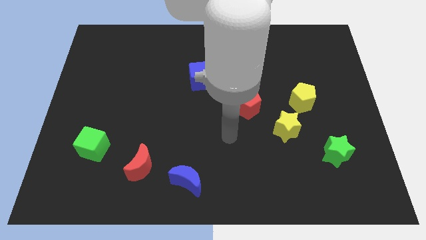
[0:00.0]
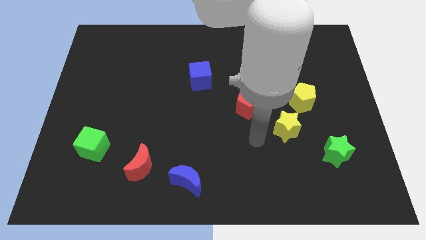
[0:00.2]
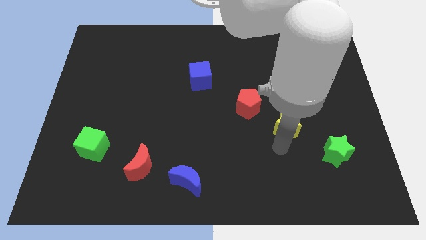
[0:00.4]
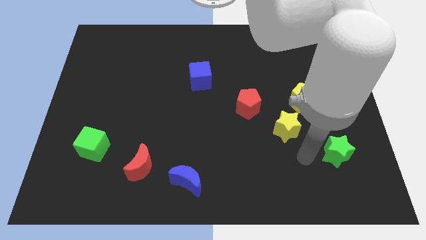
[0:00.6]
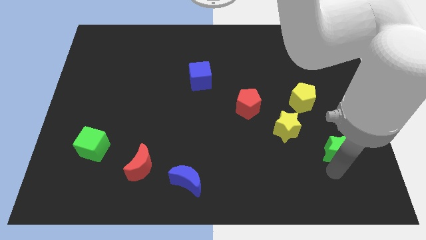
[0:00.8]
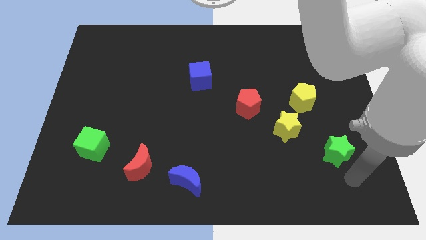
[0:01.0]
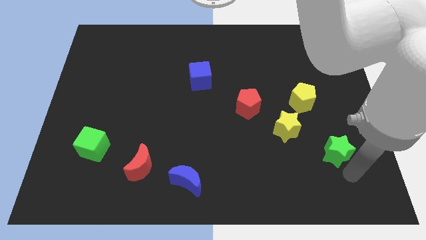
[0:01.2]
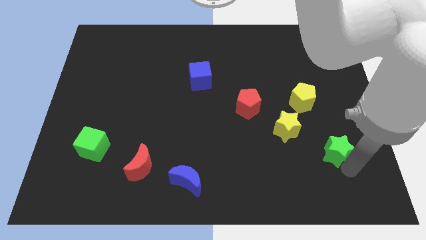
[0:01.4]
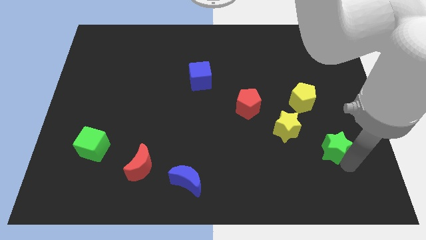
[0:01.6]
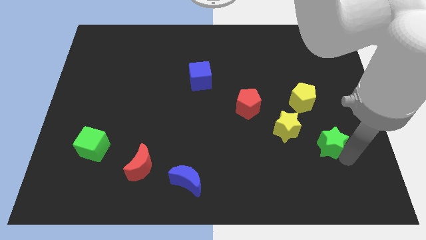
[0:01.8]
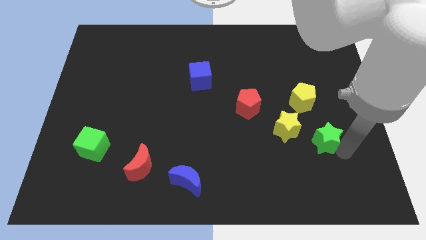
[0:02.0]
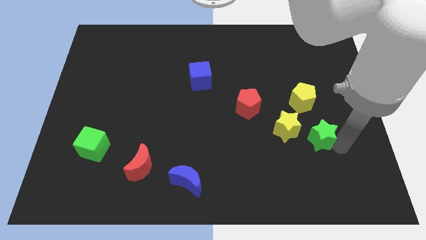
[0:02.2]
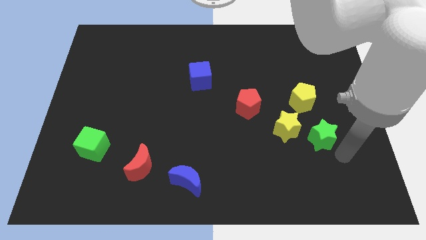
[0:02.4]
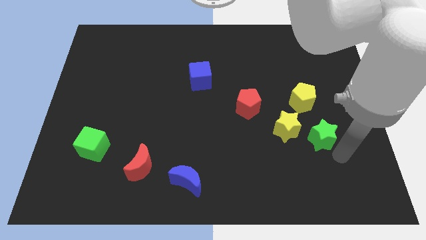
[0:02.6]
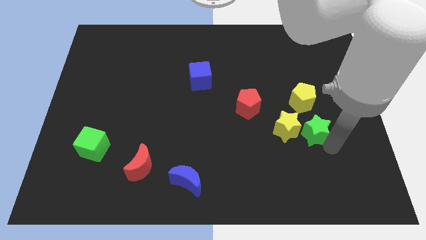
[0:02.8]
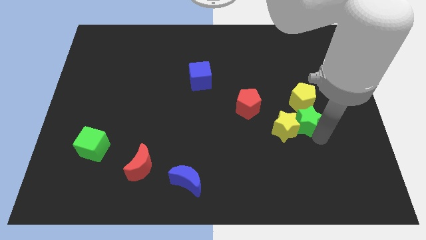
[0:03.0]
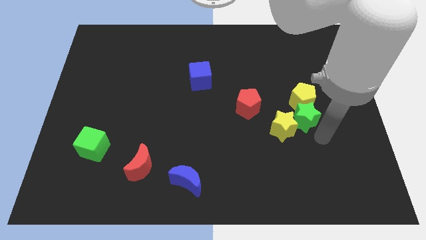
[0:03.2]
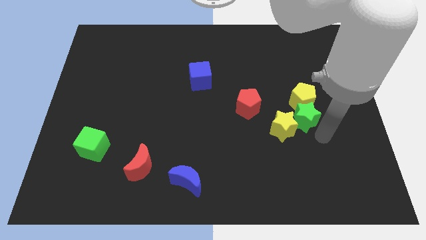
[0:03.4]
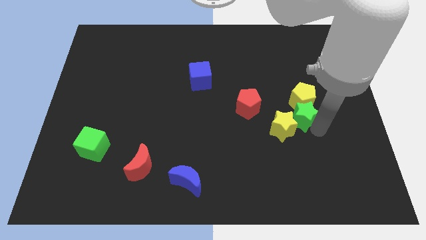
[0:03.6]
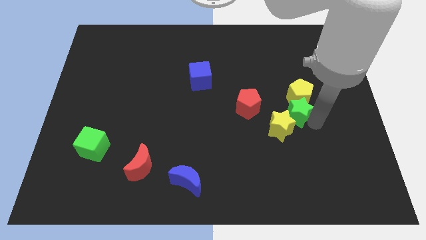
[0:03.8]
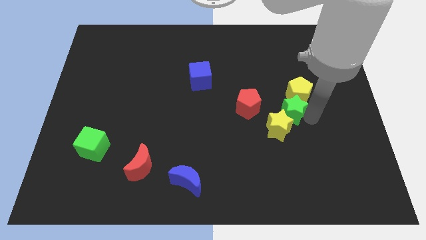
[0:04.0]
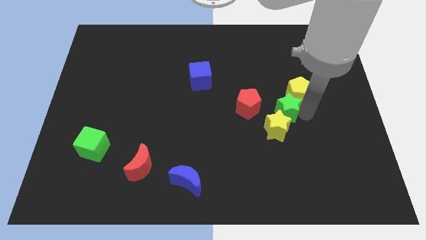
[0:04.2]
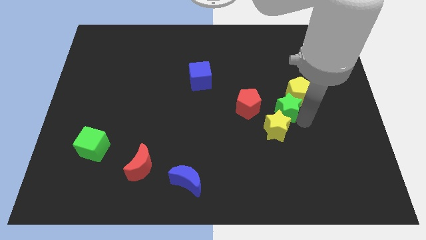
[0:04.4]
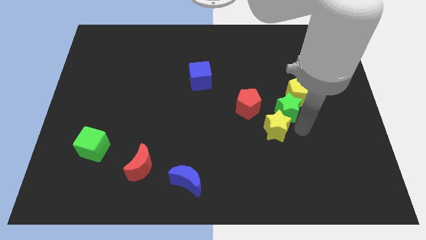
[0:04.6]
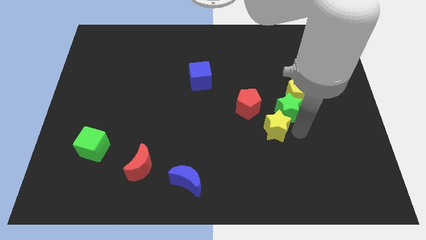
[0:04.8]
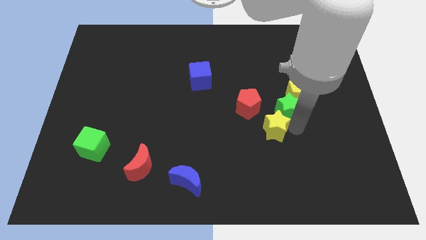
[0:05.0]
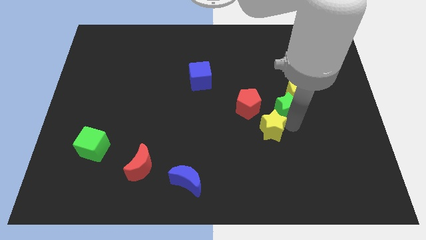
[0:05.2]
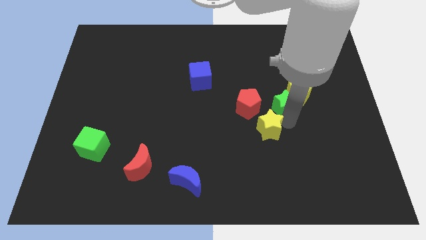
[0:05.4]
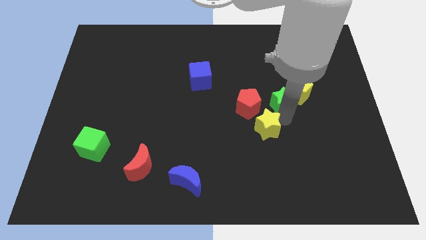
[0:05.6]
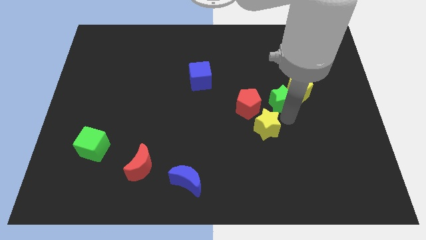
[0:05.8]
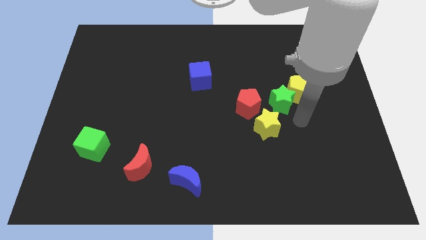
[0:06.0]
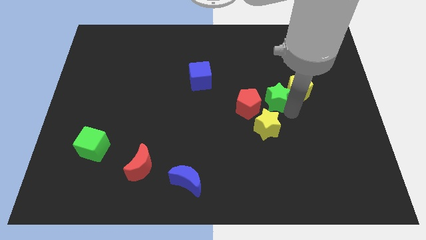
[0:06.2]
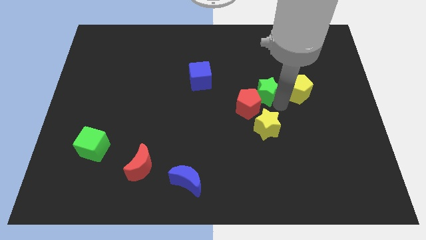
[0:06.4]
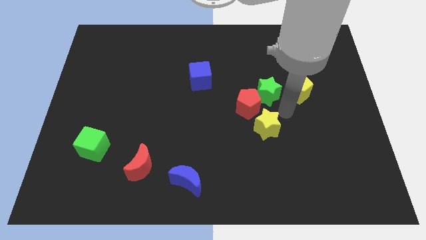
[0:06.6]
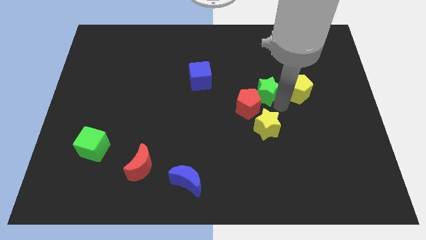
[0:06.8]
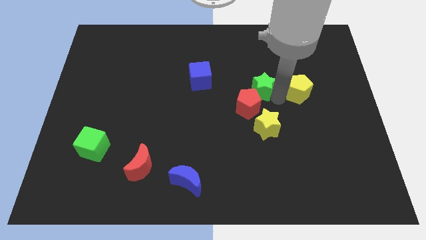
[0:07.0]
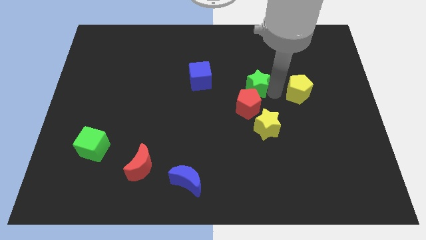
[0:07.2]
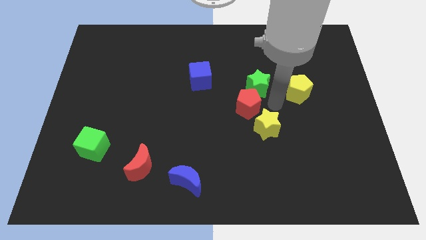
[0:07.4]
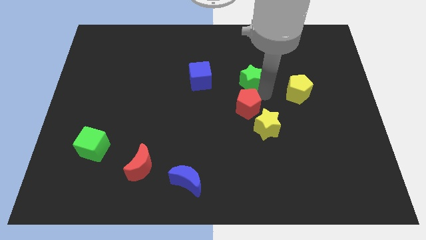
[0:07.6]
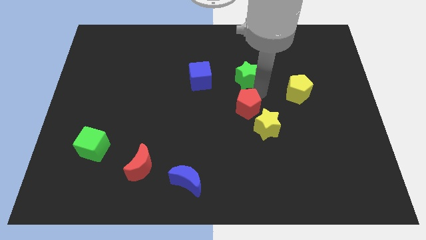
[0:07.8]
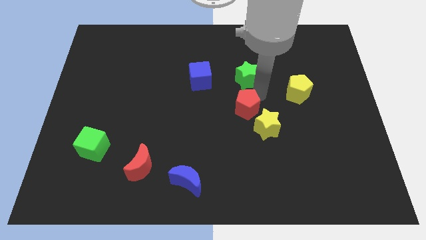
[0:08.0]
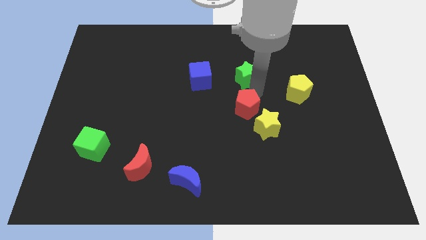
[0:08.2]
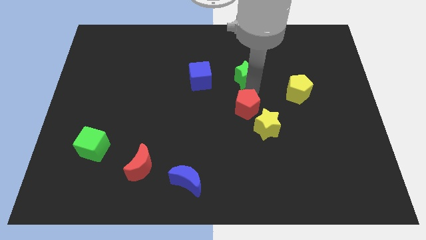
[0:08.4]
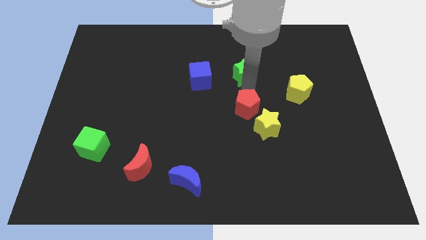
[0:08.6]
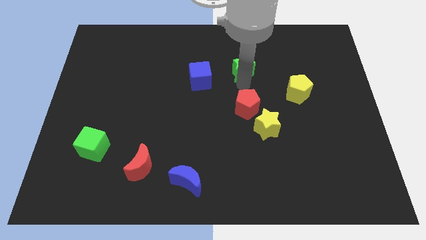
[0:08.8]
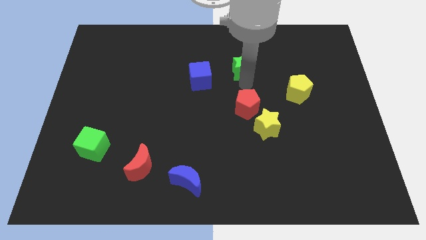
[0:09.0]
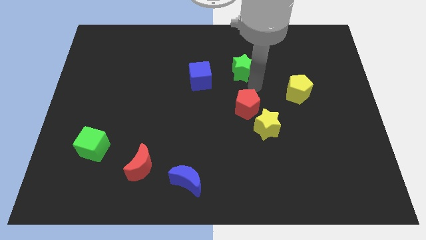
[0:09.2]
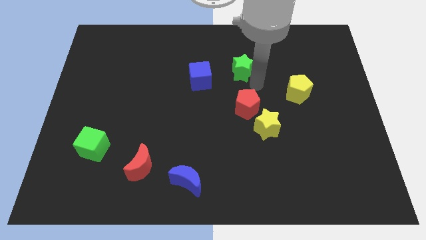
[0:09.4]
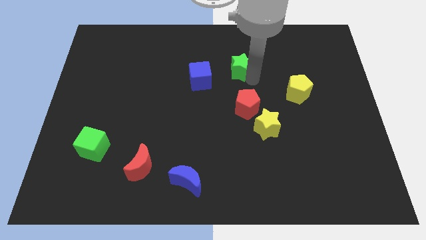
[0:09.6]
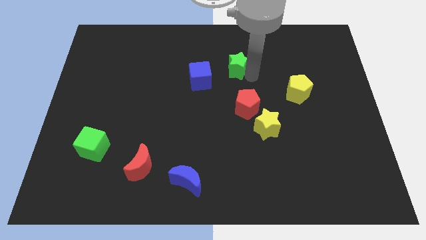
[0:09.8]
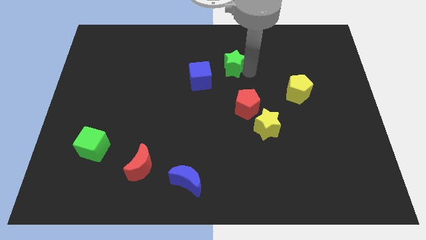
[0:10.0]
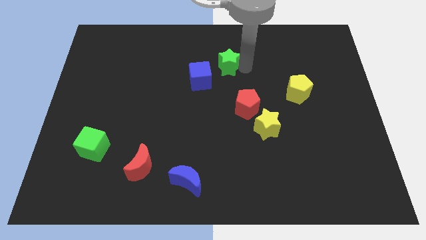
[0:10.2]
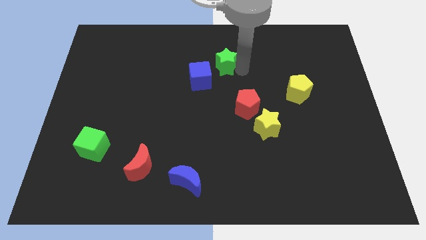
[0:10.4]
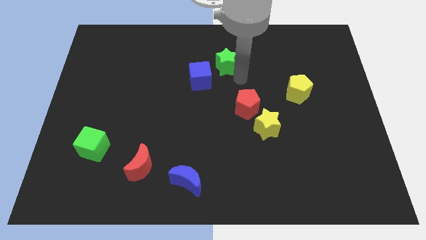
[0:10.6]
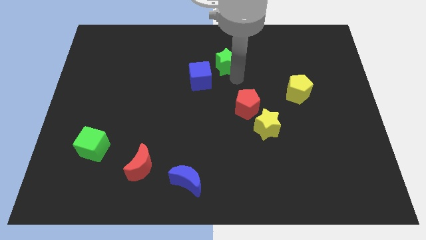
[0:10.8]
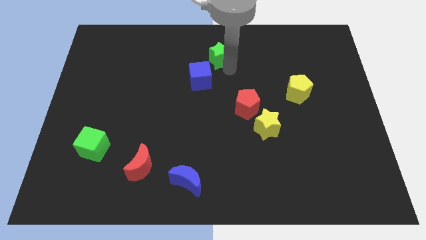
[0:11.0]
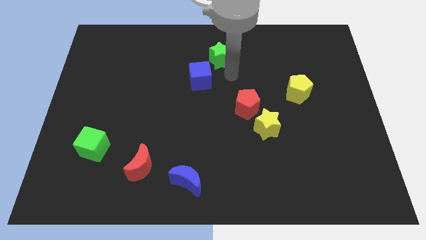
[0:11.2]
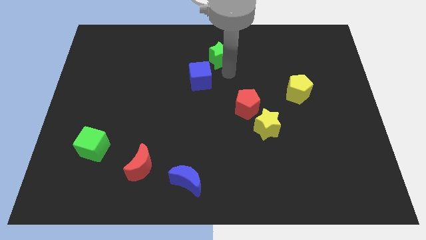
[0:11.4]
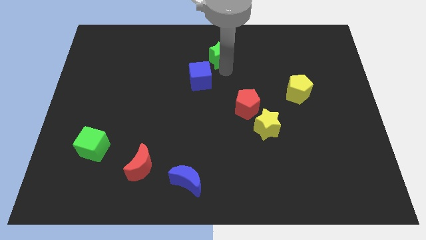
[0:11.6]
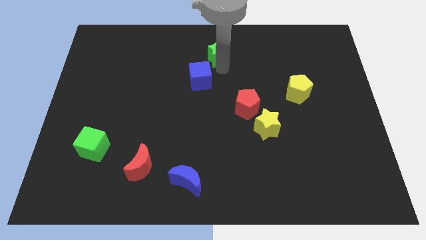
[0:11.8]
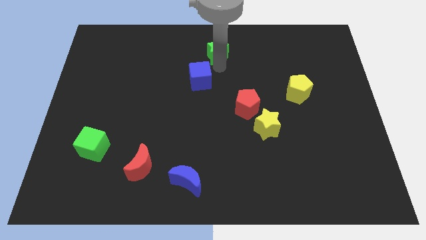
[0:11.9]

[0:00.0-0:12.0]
move the green star to the top
